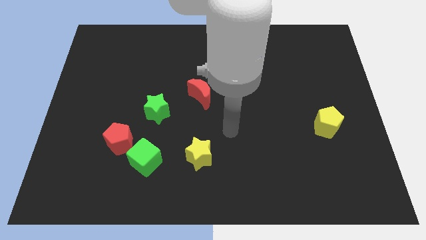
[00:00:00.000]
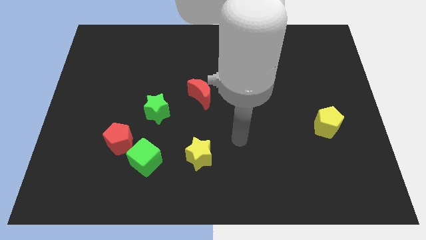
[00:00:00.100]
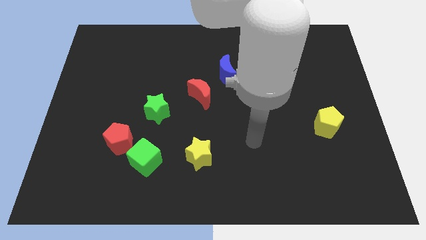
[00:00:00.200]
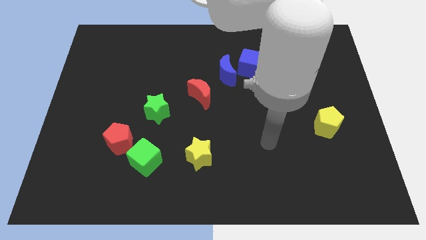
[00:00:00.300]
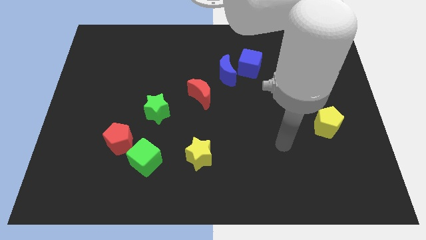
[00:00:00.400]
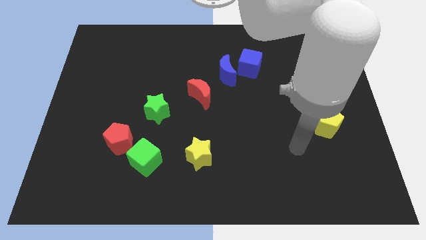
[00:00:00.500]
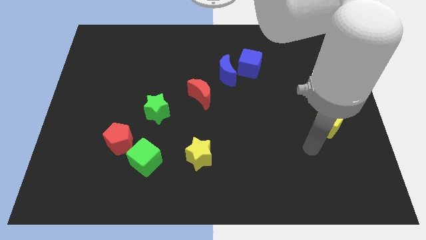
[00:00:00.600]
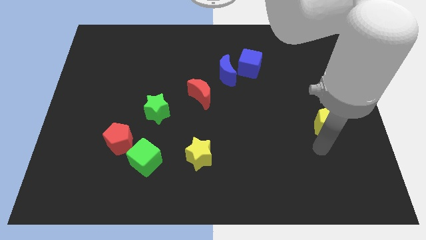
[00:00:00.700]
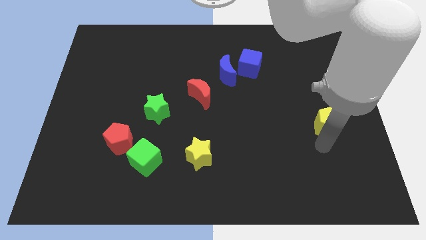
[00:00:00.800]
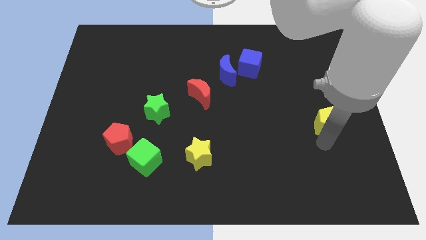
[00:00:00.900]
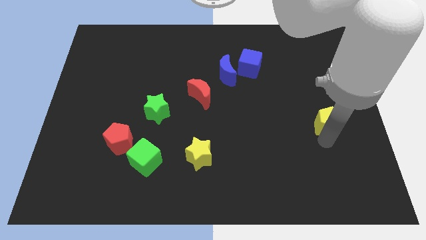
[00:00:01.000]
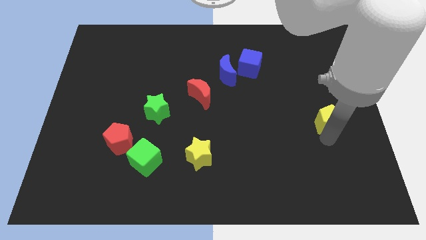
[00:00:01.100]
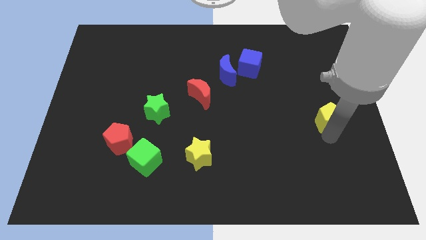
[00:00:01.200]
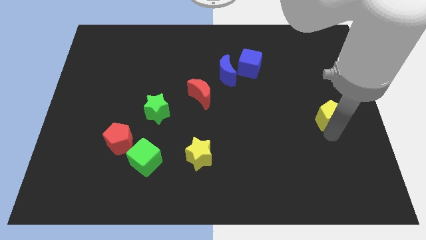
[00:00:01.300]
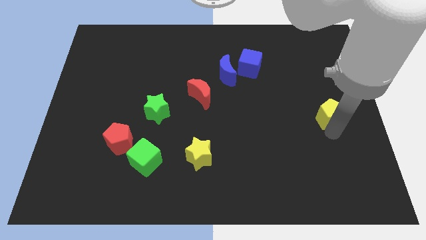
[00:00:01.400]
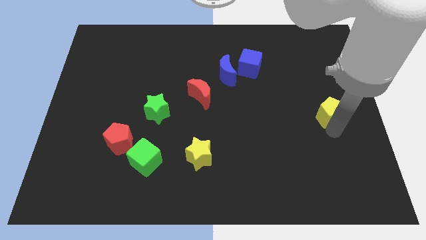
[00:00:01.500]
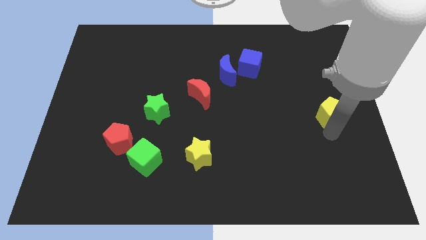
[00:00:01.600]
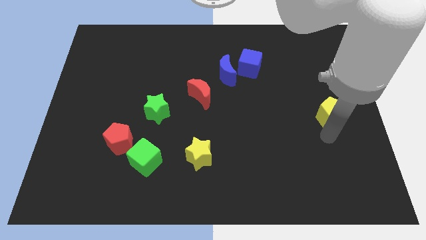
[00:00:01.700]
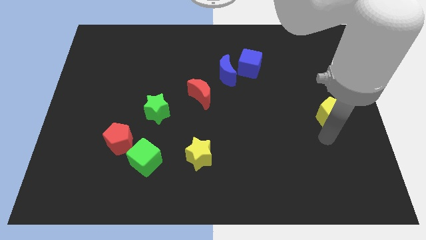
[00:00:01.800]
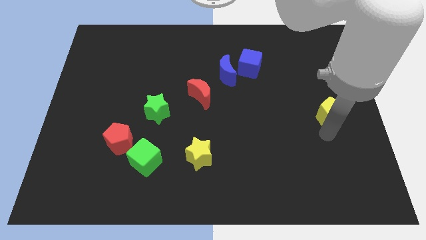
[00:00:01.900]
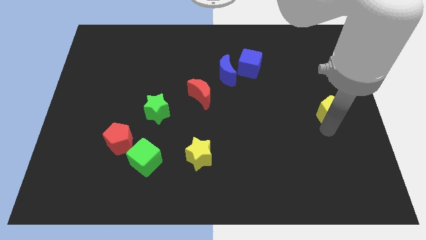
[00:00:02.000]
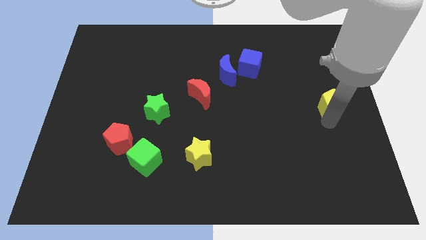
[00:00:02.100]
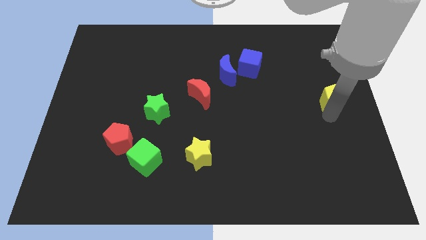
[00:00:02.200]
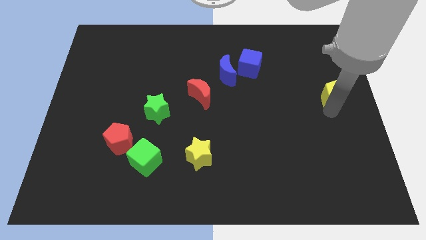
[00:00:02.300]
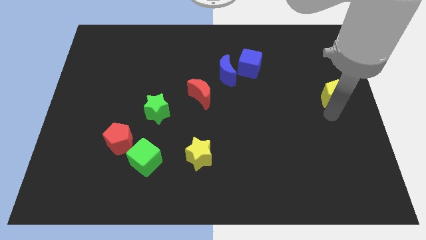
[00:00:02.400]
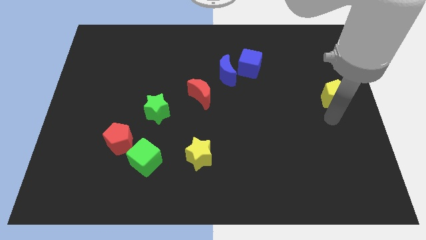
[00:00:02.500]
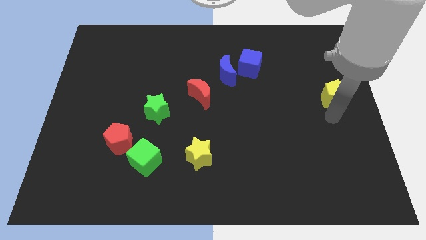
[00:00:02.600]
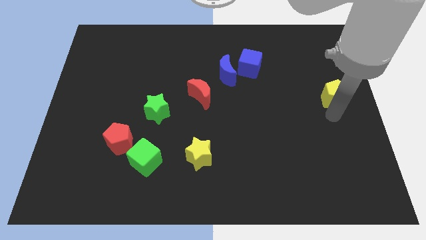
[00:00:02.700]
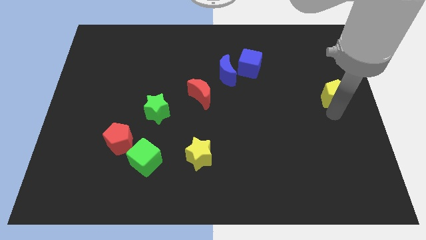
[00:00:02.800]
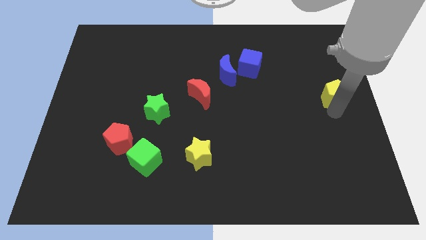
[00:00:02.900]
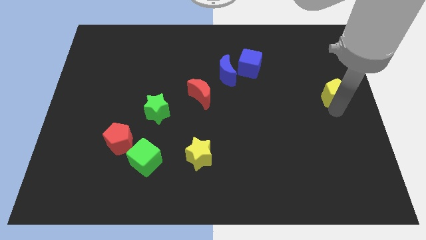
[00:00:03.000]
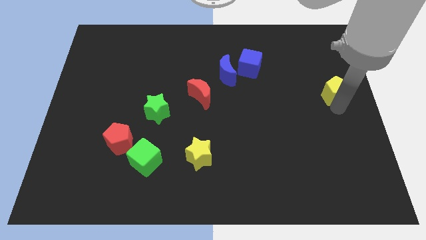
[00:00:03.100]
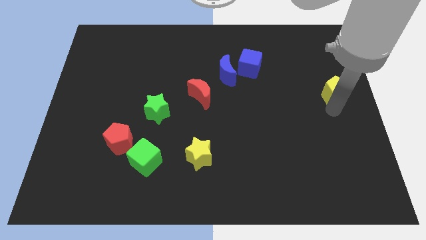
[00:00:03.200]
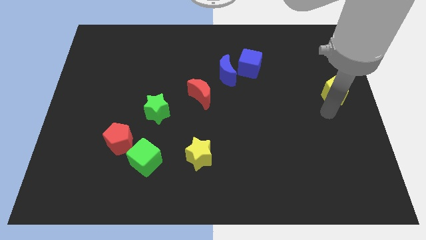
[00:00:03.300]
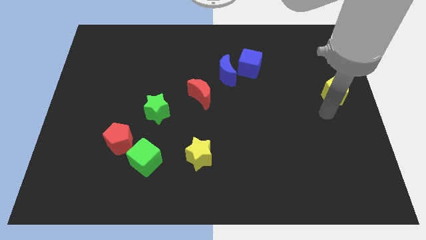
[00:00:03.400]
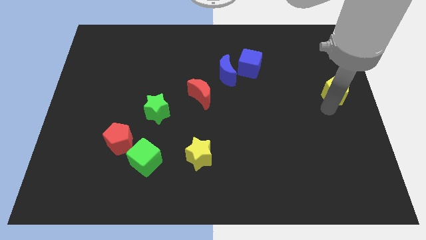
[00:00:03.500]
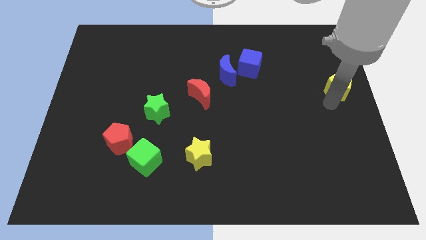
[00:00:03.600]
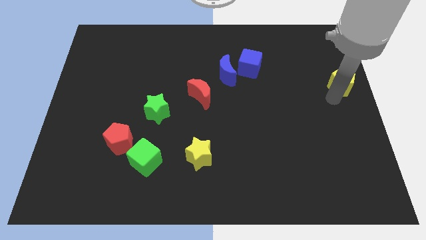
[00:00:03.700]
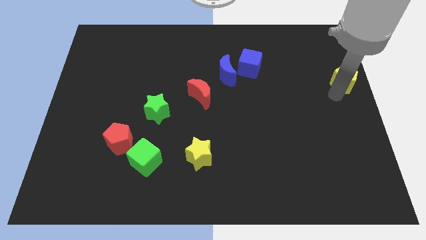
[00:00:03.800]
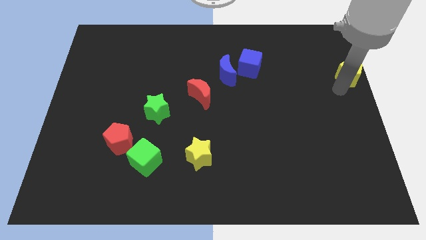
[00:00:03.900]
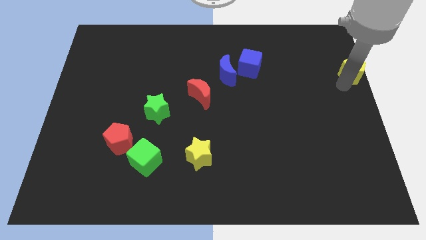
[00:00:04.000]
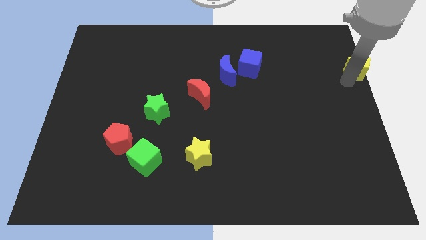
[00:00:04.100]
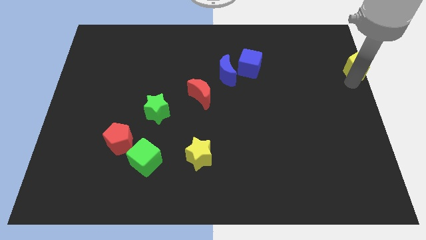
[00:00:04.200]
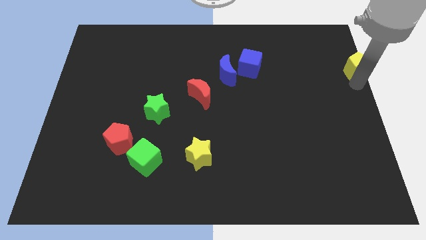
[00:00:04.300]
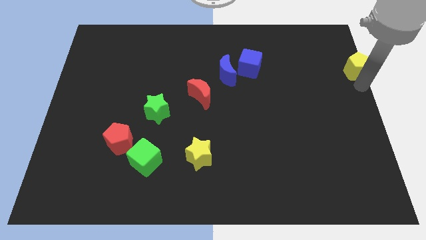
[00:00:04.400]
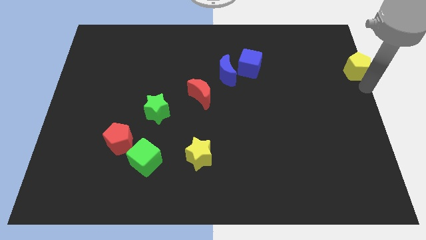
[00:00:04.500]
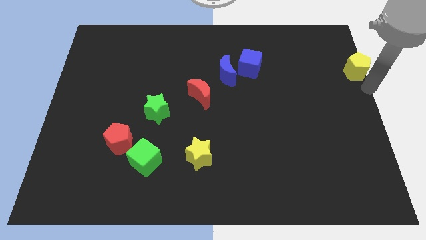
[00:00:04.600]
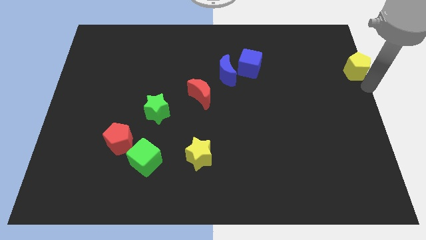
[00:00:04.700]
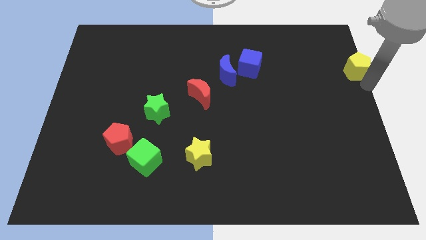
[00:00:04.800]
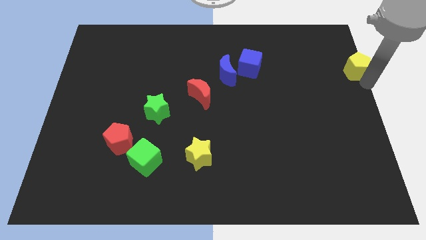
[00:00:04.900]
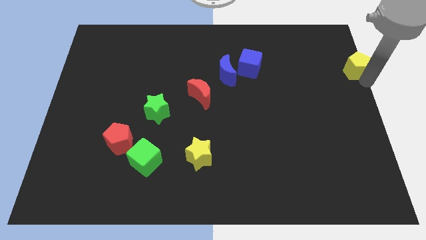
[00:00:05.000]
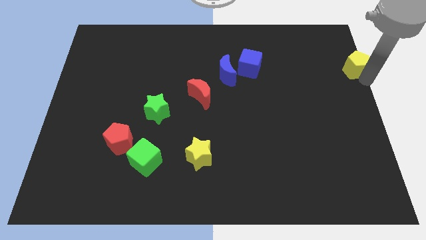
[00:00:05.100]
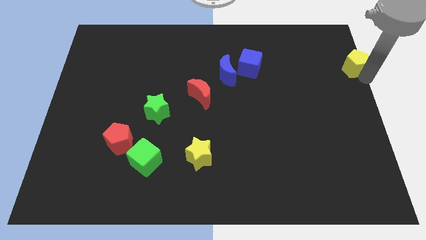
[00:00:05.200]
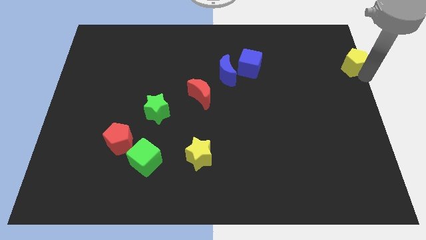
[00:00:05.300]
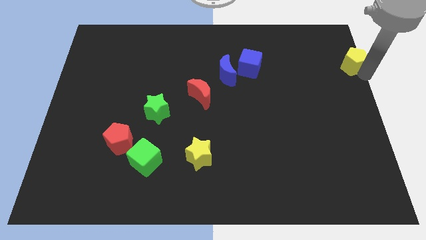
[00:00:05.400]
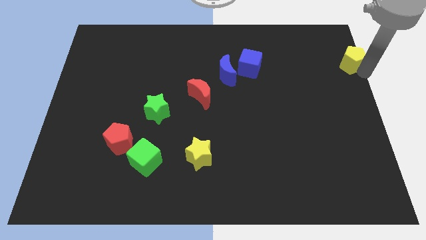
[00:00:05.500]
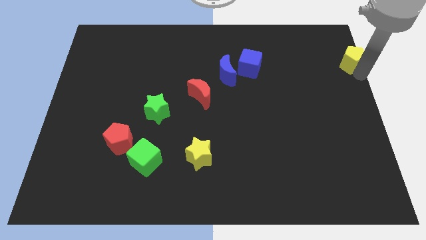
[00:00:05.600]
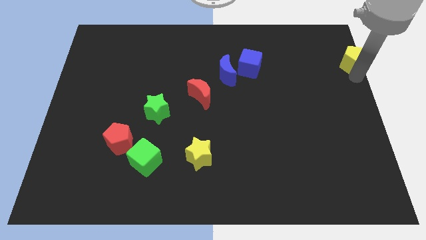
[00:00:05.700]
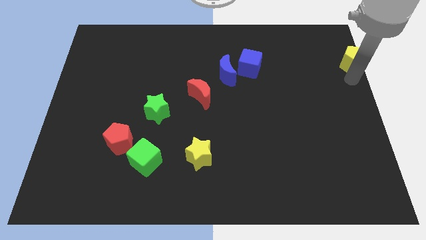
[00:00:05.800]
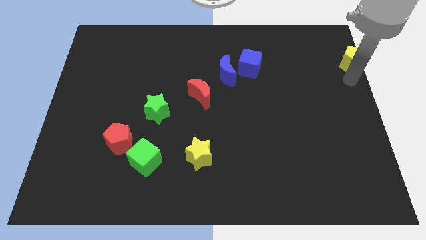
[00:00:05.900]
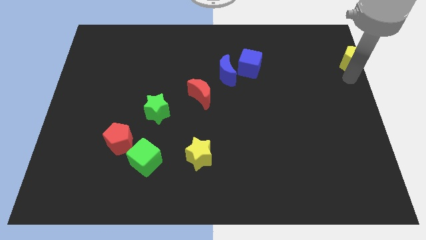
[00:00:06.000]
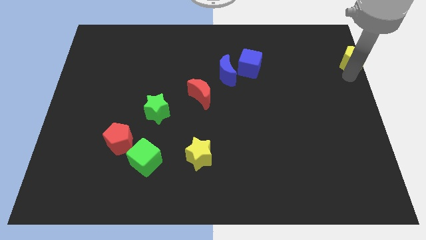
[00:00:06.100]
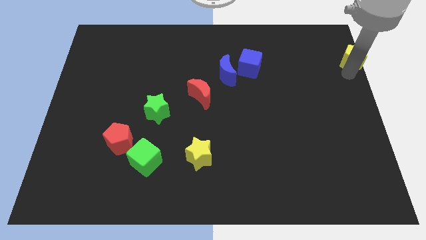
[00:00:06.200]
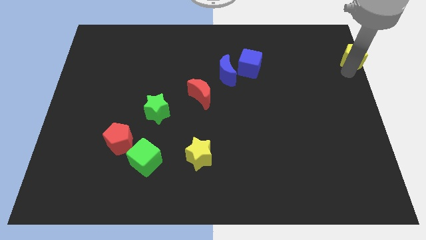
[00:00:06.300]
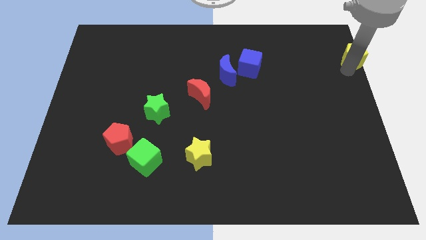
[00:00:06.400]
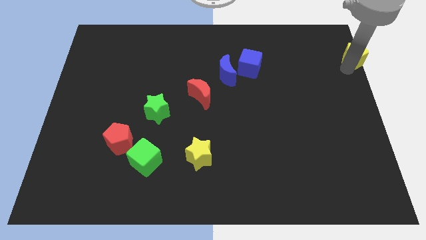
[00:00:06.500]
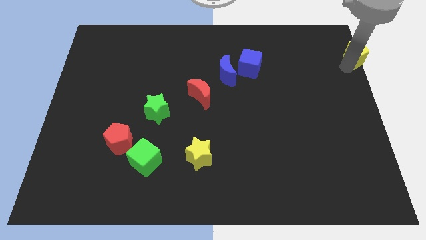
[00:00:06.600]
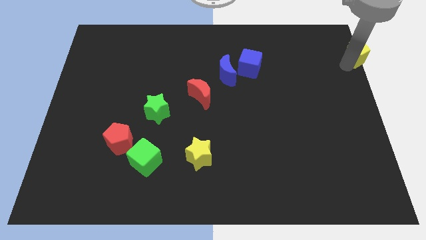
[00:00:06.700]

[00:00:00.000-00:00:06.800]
slide the yellow pentagon to the upper right corner

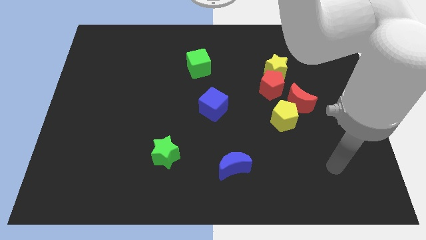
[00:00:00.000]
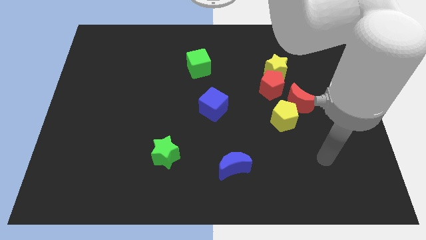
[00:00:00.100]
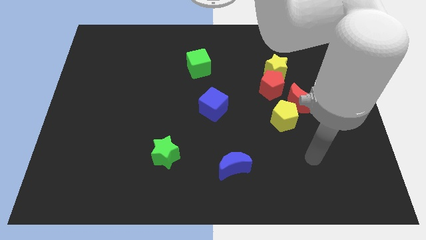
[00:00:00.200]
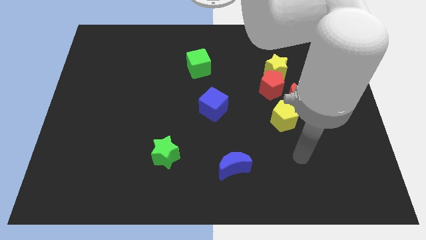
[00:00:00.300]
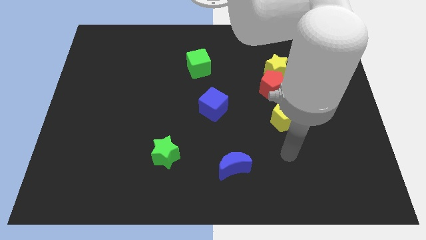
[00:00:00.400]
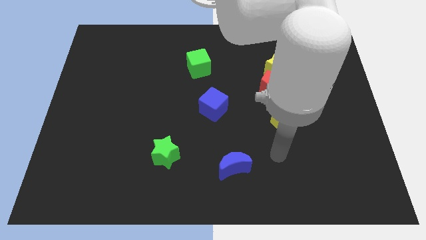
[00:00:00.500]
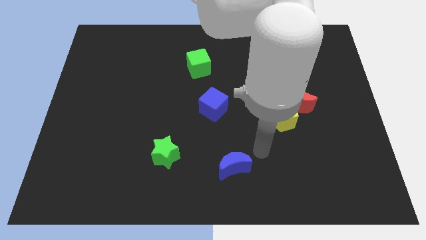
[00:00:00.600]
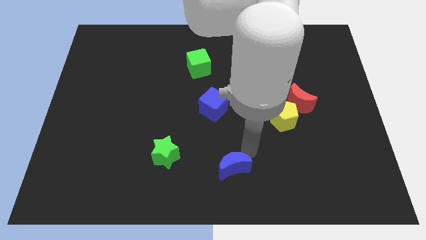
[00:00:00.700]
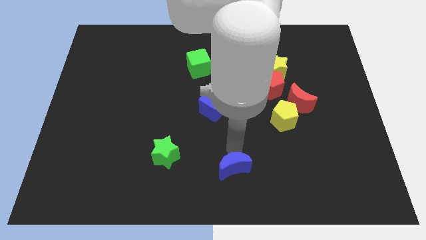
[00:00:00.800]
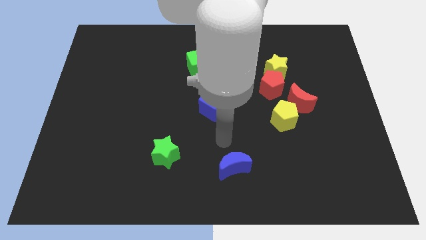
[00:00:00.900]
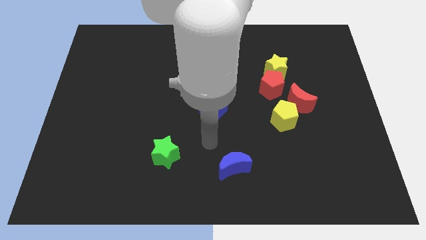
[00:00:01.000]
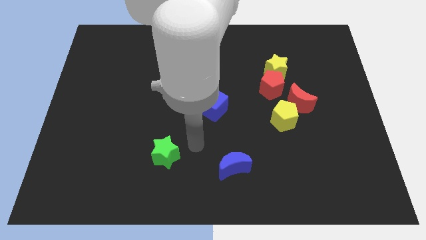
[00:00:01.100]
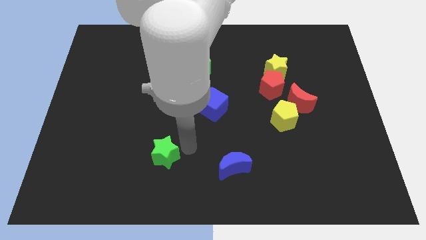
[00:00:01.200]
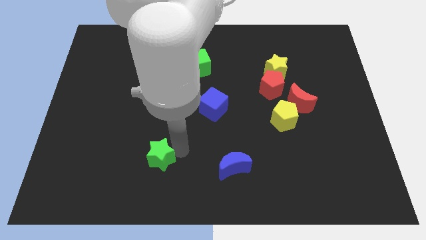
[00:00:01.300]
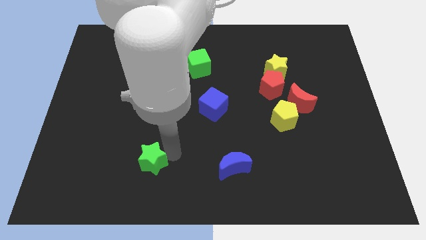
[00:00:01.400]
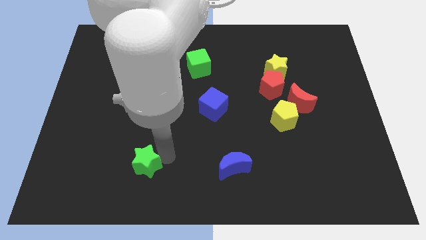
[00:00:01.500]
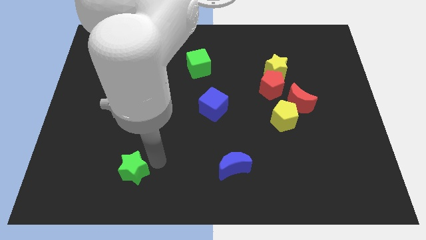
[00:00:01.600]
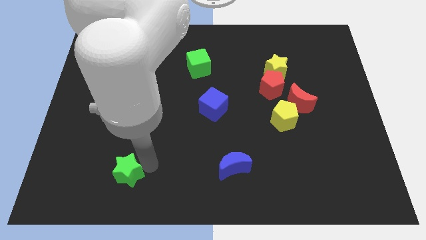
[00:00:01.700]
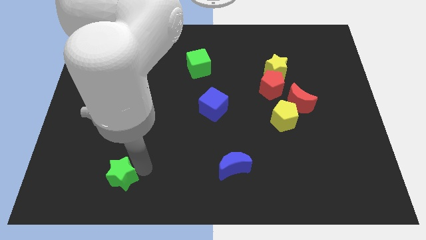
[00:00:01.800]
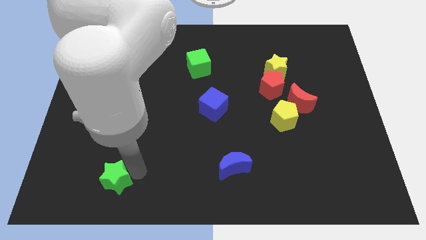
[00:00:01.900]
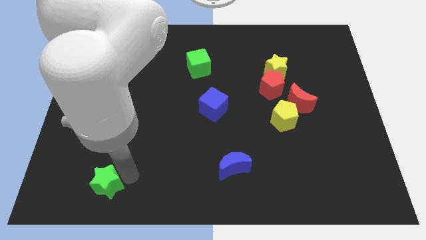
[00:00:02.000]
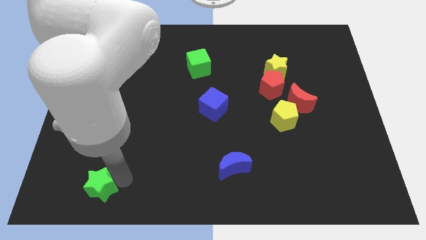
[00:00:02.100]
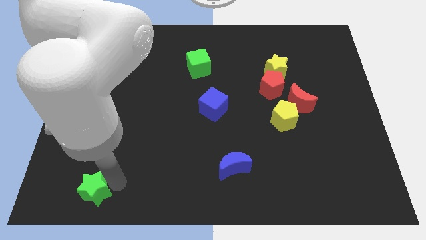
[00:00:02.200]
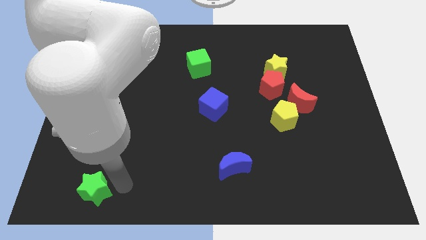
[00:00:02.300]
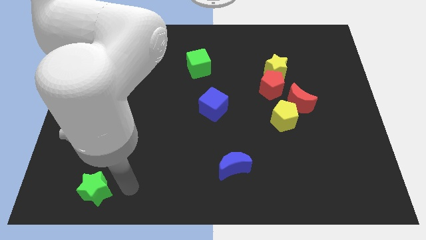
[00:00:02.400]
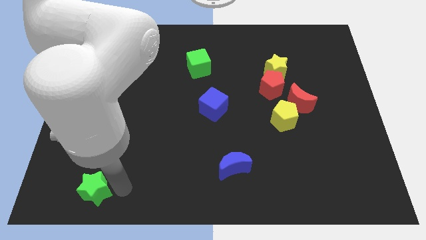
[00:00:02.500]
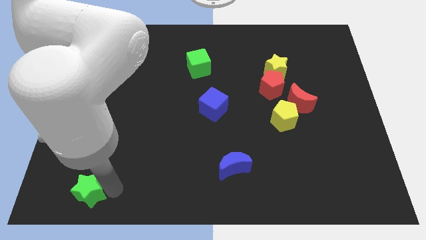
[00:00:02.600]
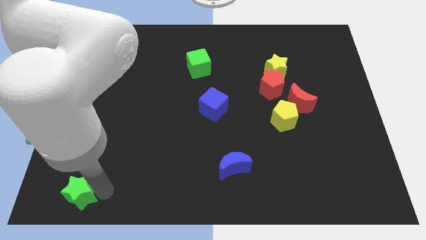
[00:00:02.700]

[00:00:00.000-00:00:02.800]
slide the green star to the bottom left
